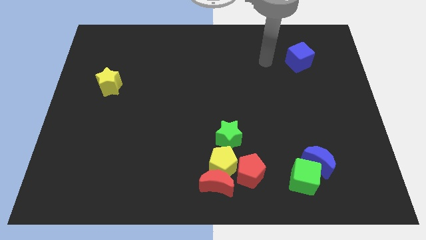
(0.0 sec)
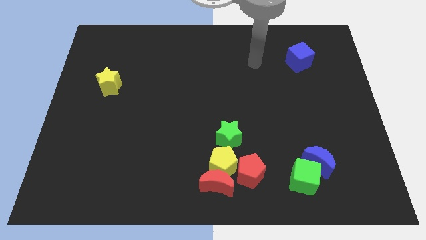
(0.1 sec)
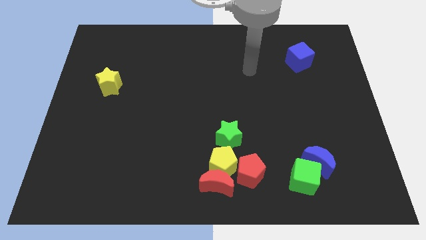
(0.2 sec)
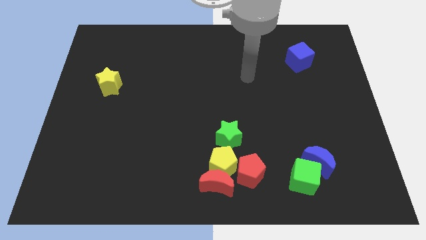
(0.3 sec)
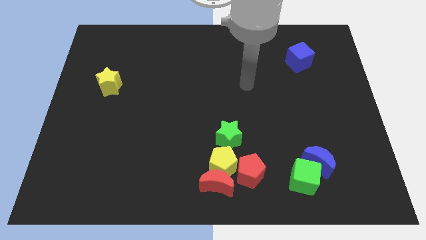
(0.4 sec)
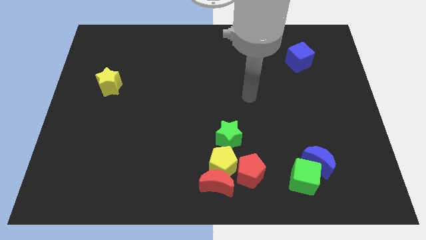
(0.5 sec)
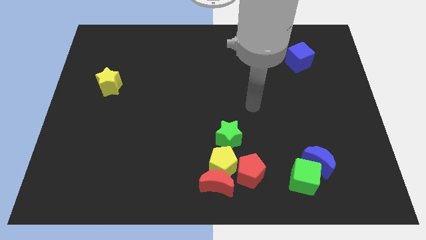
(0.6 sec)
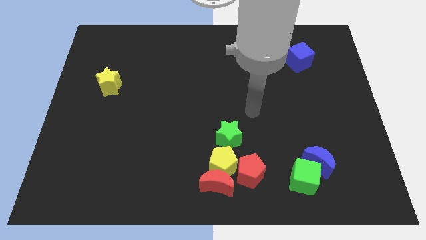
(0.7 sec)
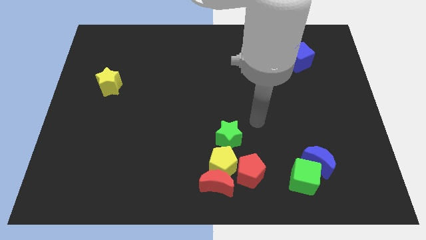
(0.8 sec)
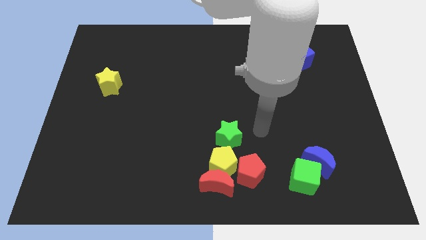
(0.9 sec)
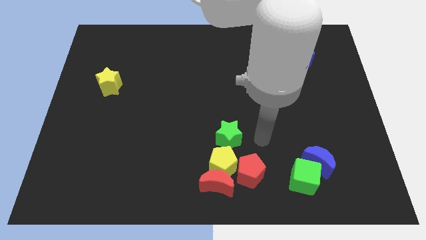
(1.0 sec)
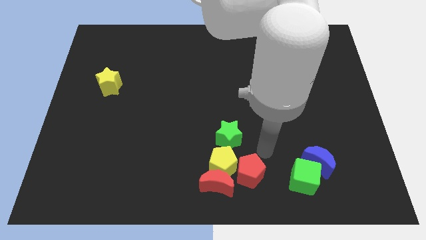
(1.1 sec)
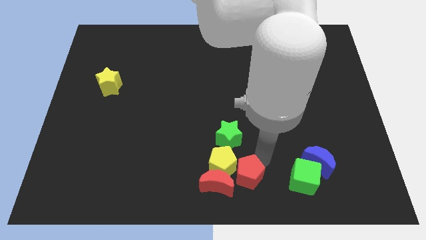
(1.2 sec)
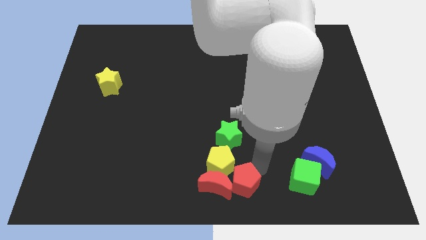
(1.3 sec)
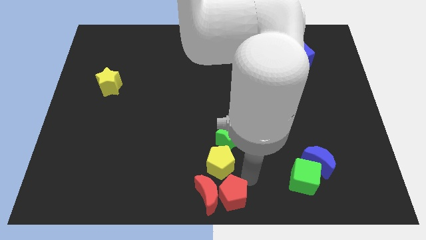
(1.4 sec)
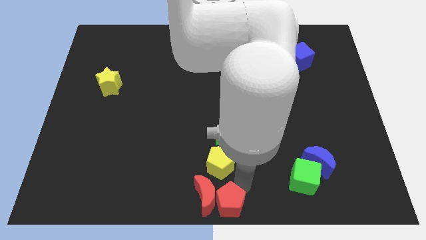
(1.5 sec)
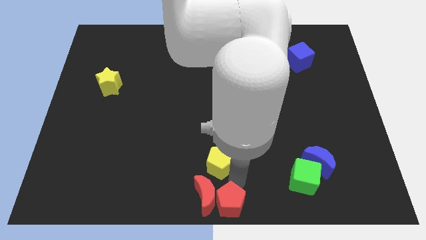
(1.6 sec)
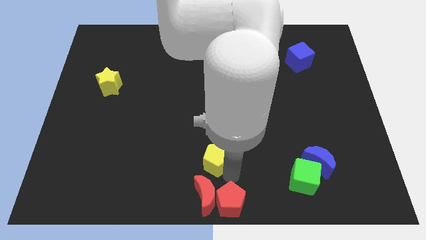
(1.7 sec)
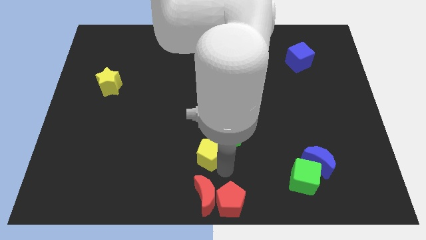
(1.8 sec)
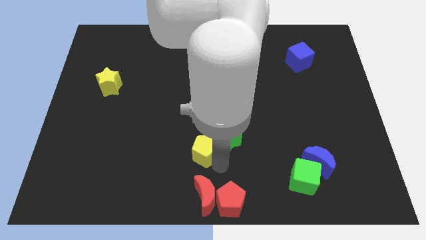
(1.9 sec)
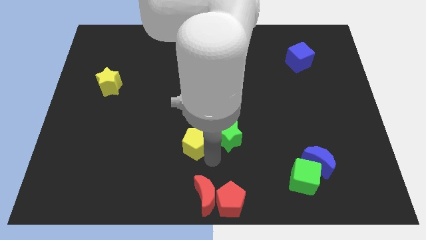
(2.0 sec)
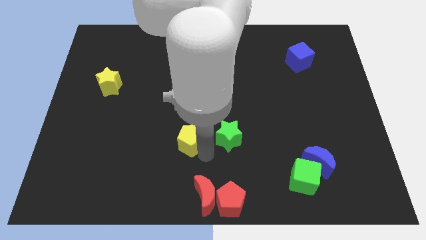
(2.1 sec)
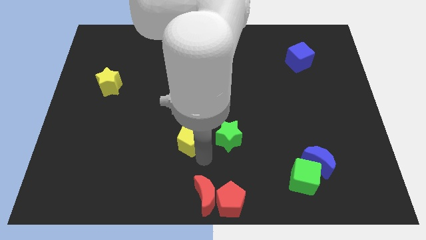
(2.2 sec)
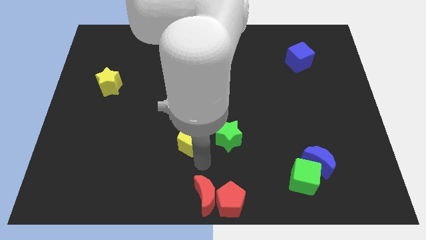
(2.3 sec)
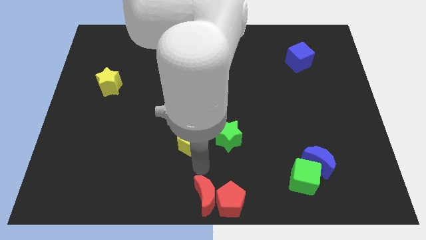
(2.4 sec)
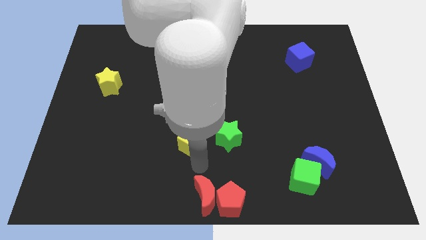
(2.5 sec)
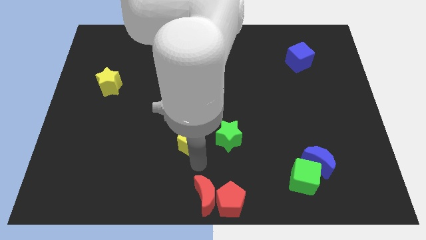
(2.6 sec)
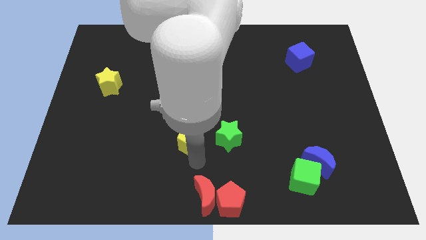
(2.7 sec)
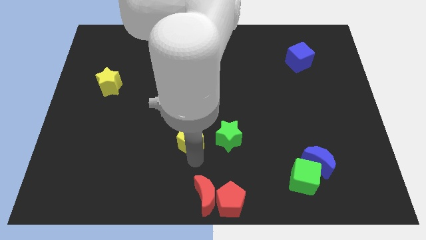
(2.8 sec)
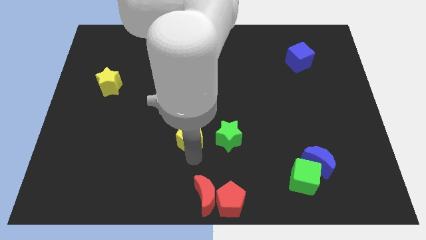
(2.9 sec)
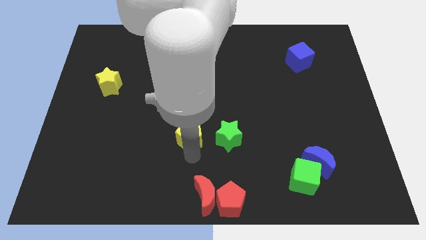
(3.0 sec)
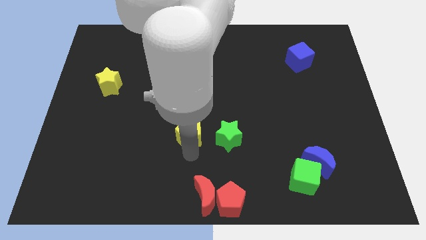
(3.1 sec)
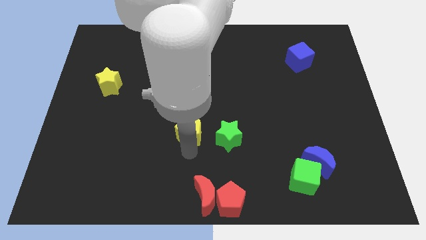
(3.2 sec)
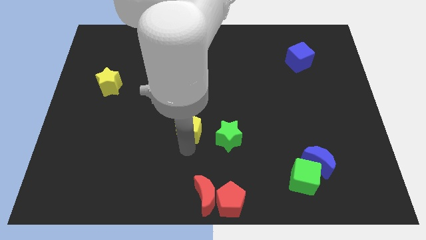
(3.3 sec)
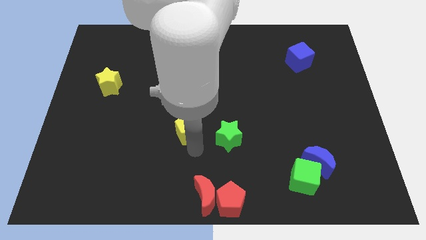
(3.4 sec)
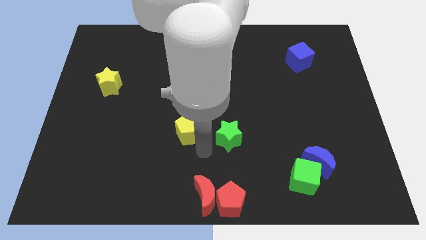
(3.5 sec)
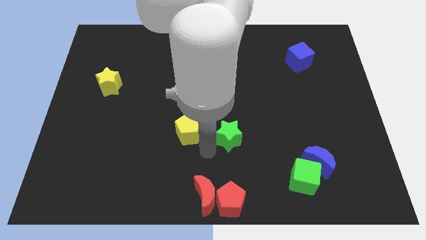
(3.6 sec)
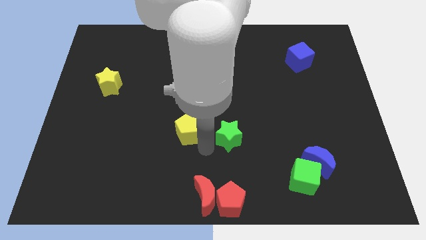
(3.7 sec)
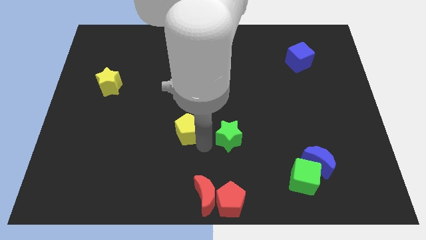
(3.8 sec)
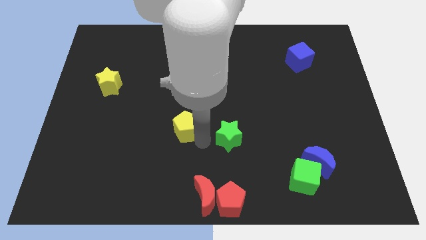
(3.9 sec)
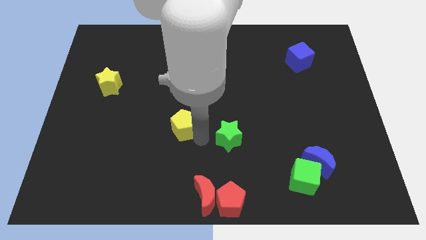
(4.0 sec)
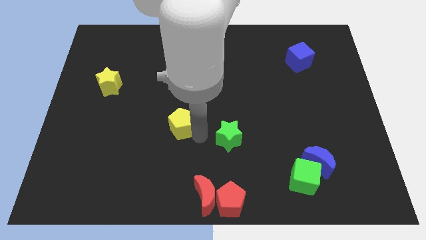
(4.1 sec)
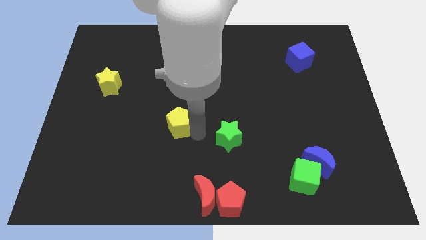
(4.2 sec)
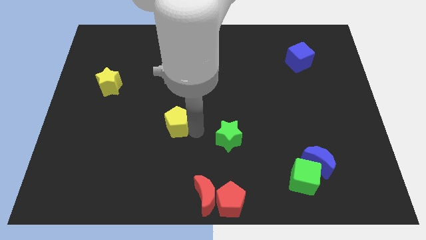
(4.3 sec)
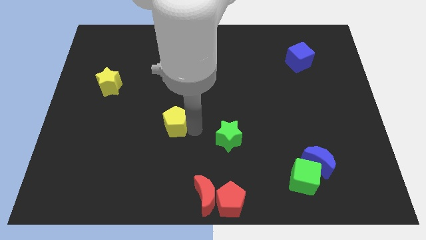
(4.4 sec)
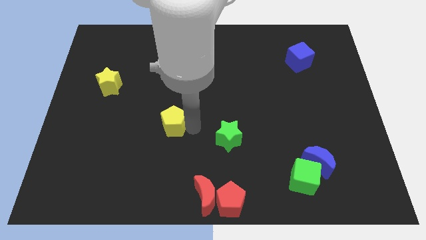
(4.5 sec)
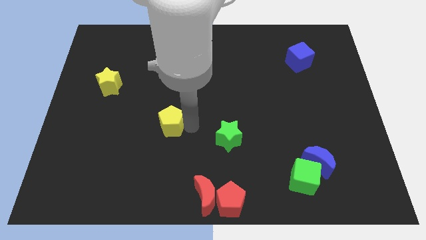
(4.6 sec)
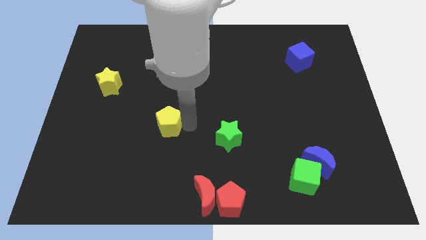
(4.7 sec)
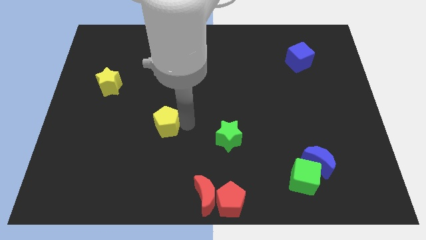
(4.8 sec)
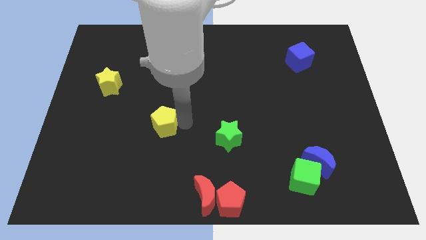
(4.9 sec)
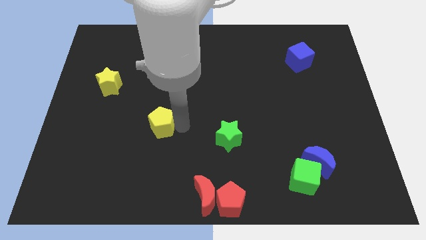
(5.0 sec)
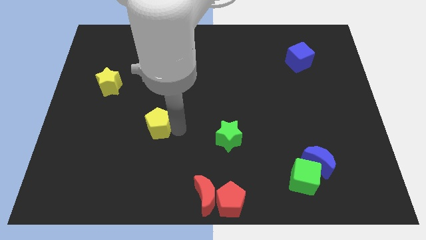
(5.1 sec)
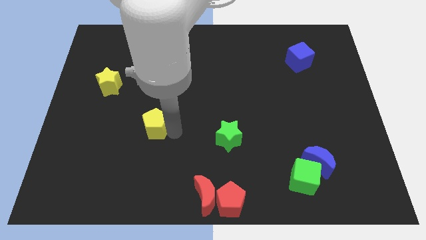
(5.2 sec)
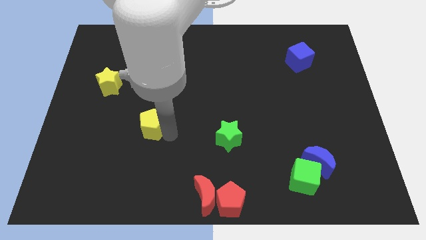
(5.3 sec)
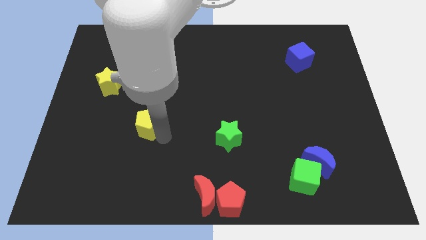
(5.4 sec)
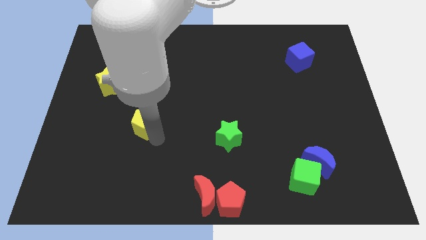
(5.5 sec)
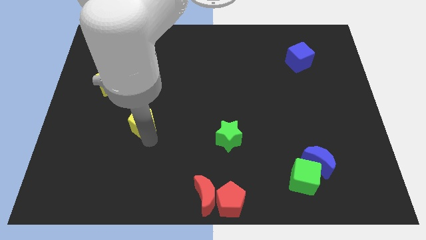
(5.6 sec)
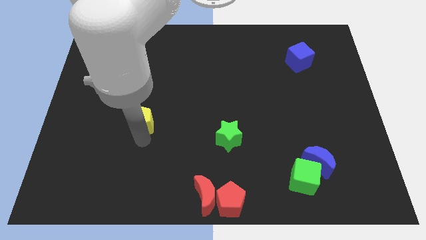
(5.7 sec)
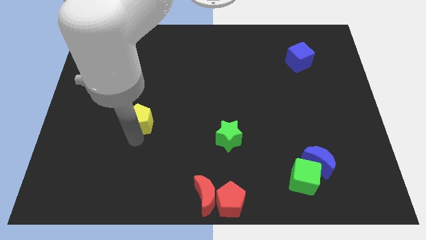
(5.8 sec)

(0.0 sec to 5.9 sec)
push the yellow pentagon upwards and to the left diagonally

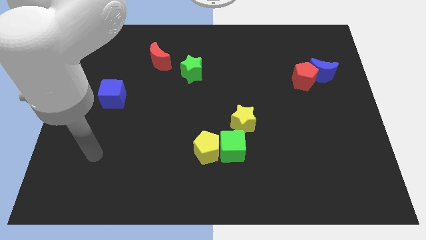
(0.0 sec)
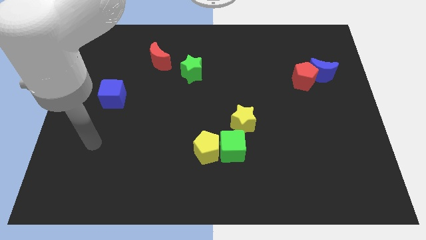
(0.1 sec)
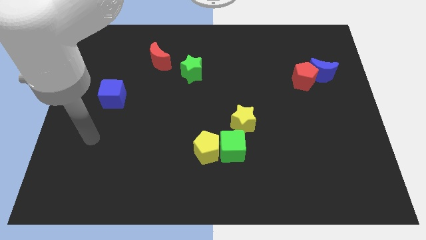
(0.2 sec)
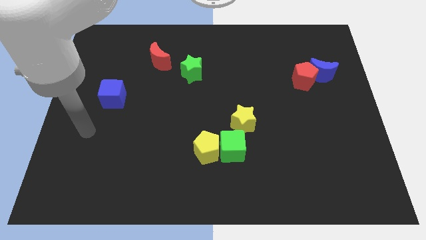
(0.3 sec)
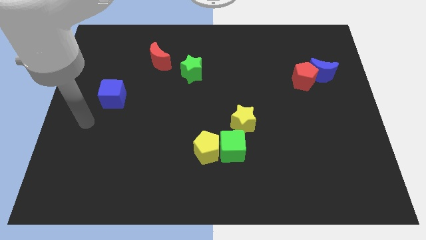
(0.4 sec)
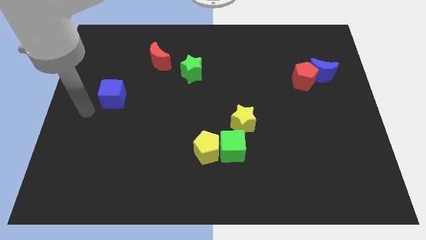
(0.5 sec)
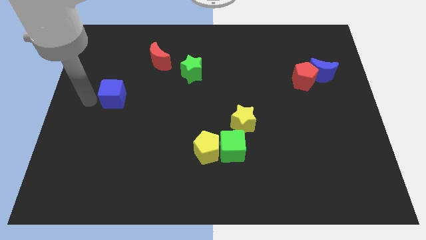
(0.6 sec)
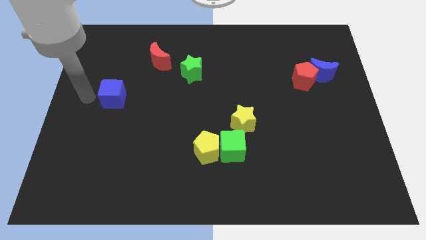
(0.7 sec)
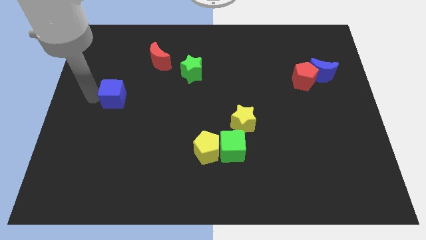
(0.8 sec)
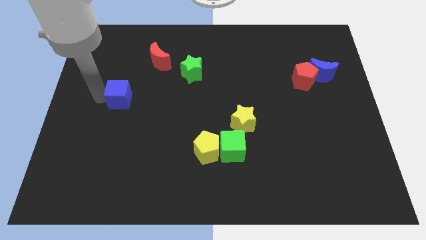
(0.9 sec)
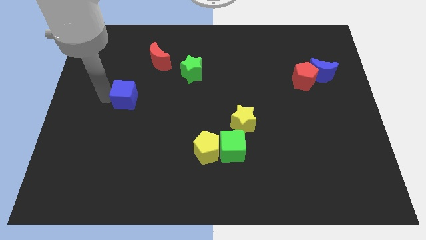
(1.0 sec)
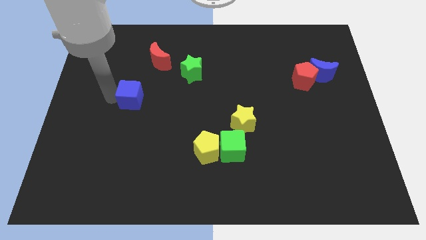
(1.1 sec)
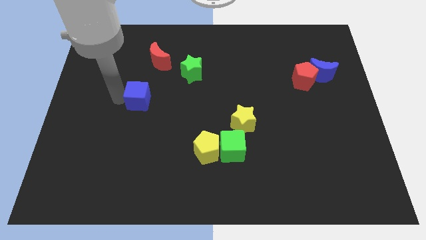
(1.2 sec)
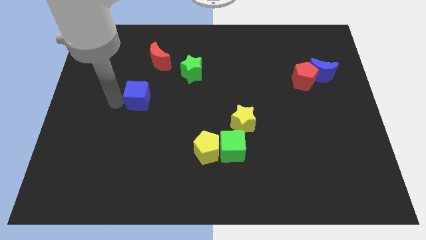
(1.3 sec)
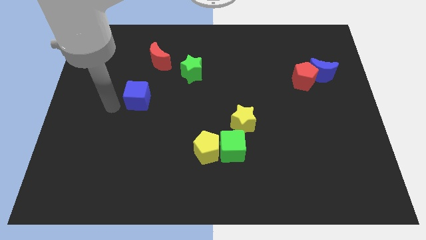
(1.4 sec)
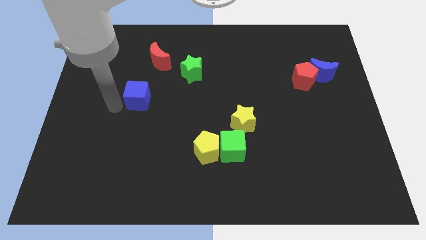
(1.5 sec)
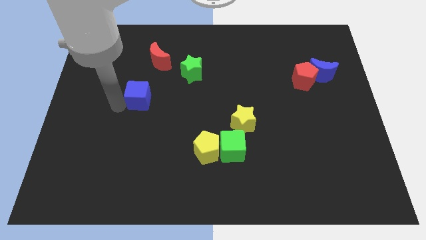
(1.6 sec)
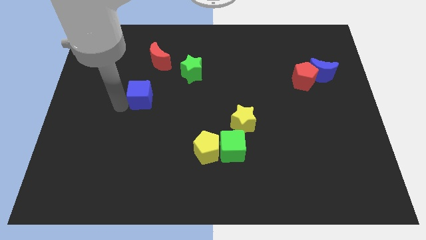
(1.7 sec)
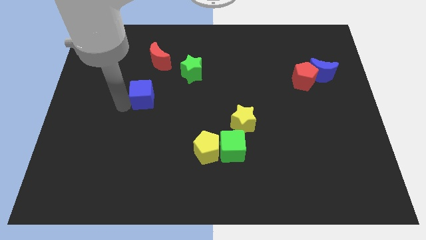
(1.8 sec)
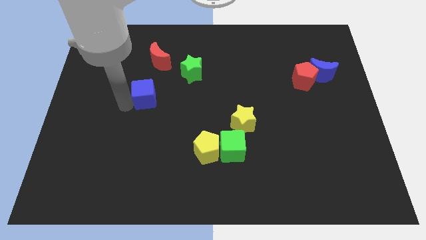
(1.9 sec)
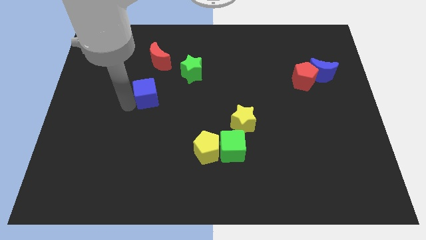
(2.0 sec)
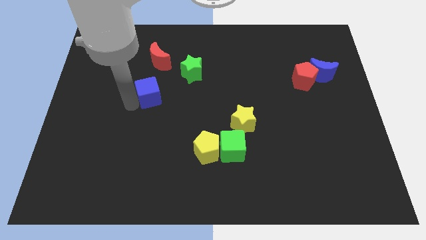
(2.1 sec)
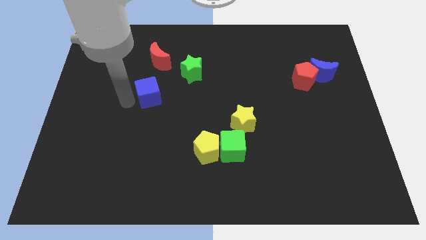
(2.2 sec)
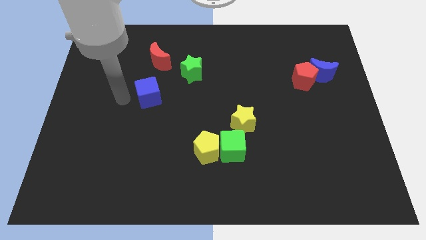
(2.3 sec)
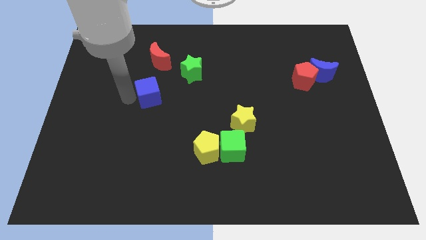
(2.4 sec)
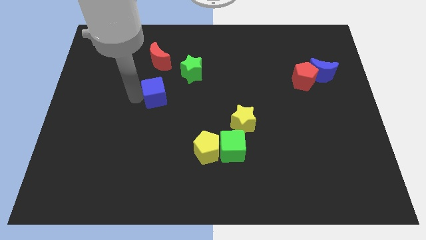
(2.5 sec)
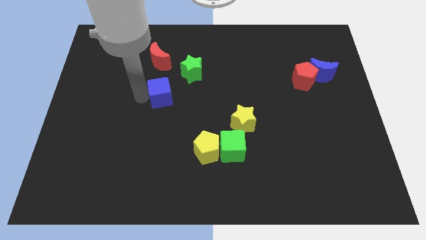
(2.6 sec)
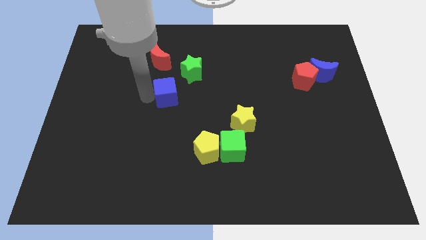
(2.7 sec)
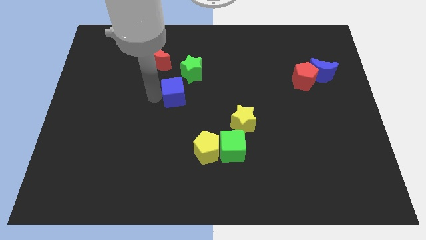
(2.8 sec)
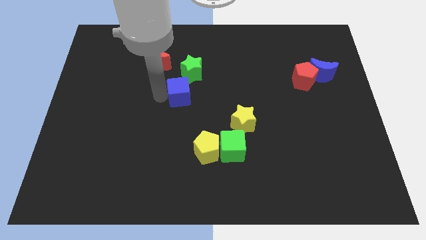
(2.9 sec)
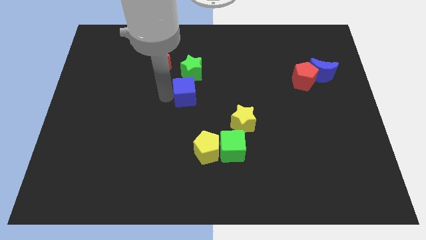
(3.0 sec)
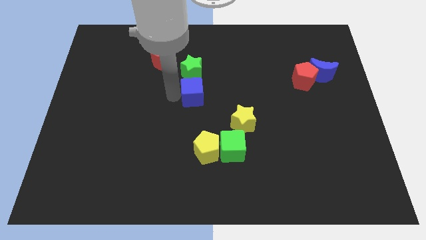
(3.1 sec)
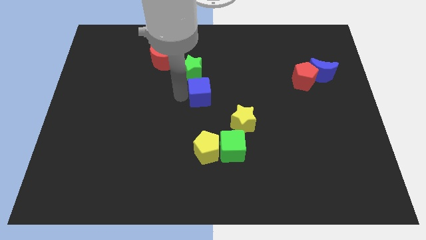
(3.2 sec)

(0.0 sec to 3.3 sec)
move the blue cube to the right
